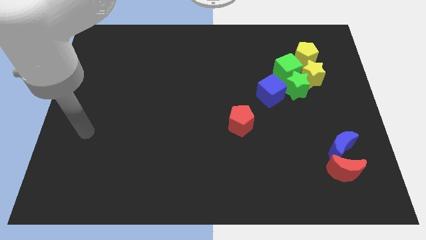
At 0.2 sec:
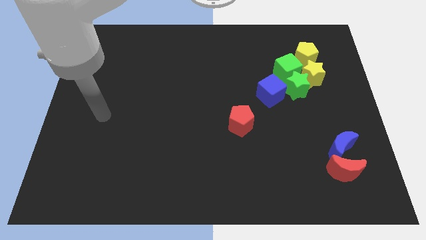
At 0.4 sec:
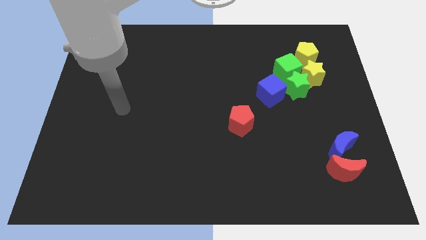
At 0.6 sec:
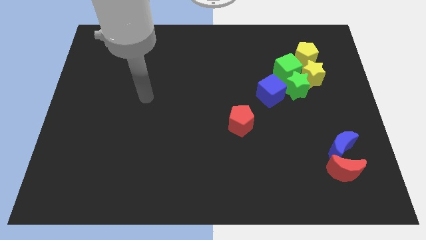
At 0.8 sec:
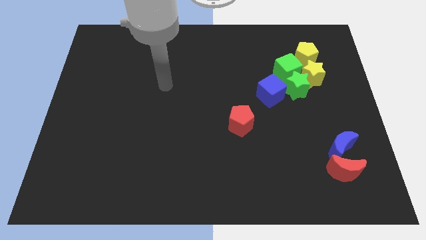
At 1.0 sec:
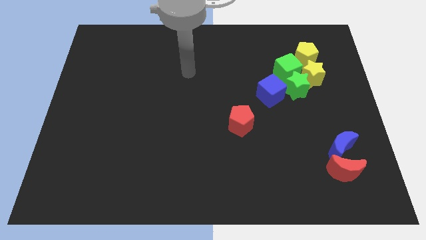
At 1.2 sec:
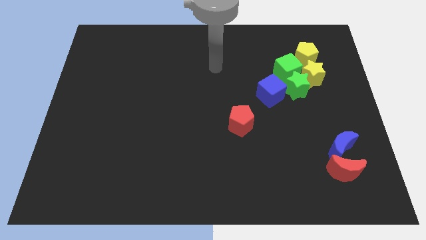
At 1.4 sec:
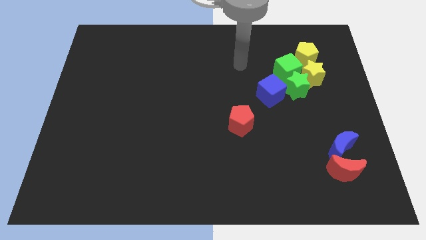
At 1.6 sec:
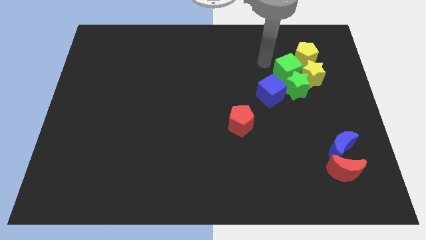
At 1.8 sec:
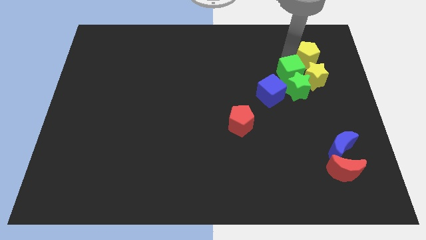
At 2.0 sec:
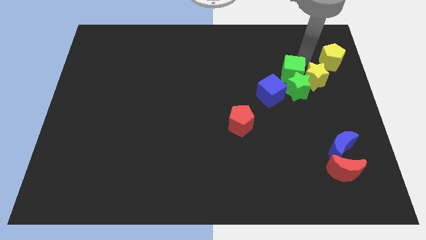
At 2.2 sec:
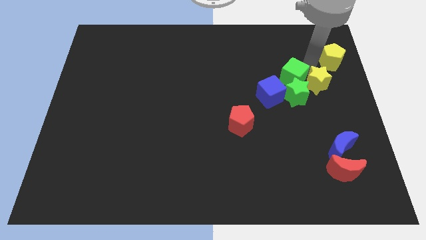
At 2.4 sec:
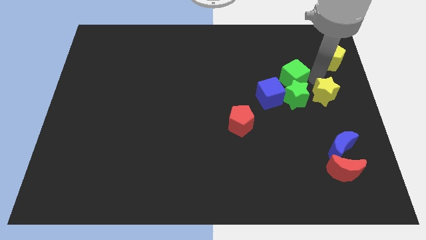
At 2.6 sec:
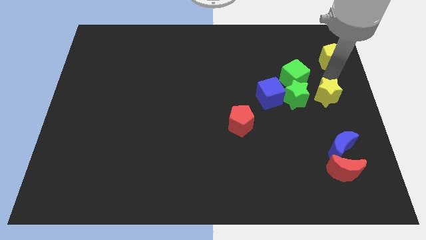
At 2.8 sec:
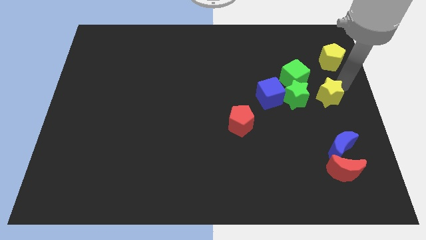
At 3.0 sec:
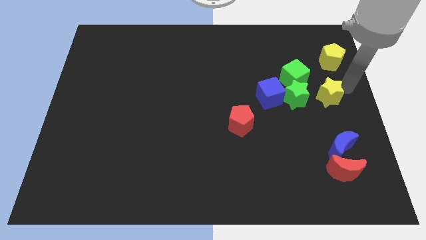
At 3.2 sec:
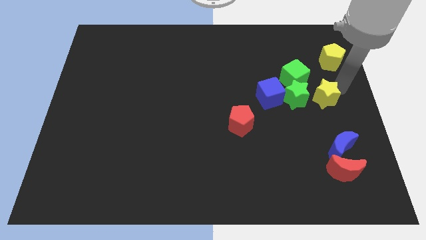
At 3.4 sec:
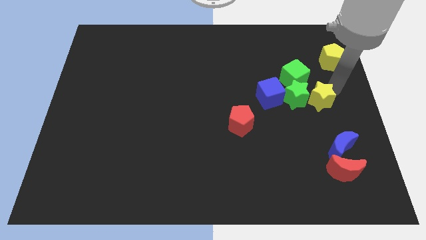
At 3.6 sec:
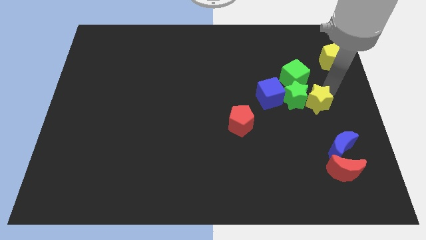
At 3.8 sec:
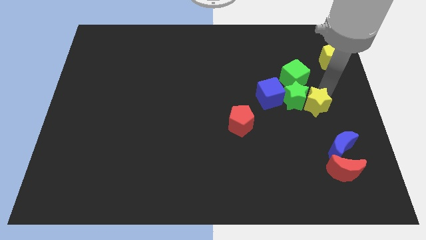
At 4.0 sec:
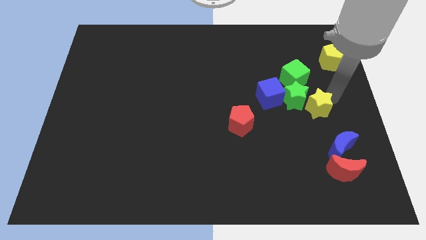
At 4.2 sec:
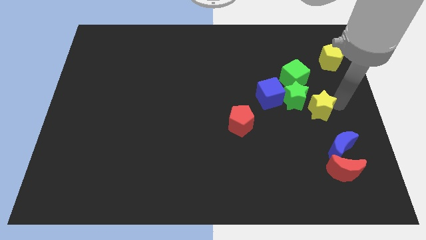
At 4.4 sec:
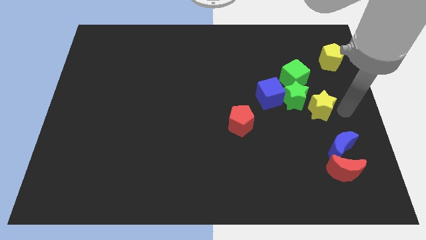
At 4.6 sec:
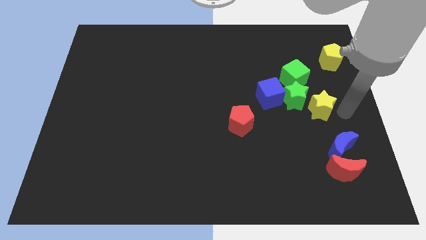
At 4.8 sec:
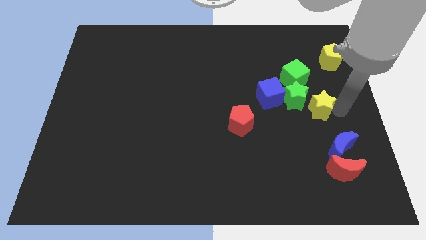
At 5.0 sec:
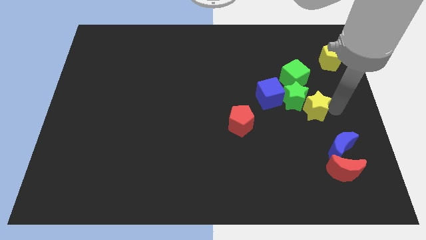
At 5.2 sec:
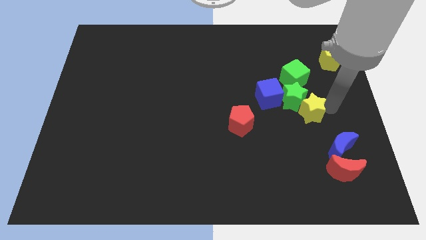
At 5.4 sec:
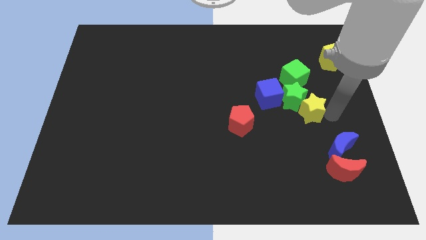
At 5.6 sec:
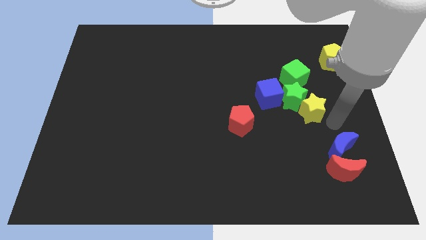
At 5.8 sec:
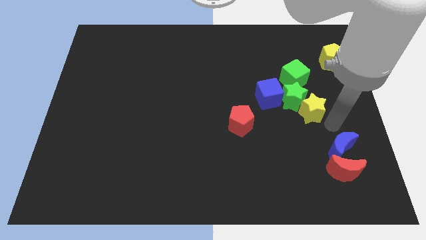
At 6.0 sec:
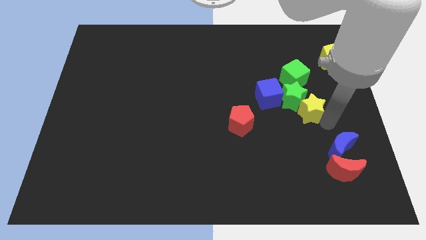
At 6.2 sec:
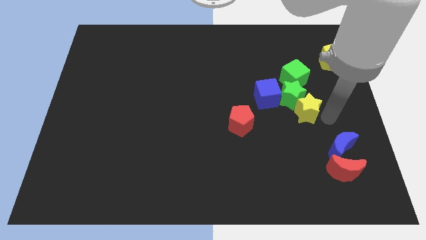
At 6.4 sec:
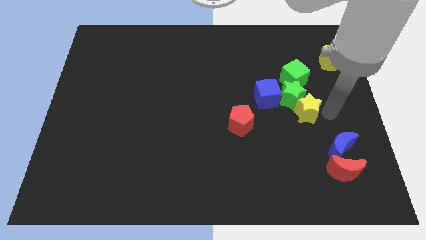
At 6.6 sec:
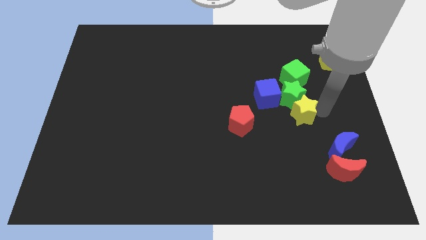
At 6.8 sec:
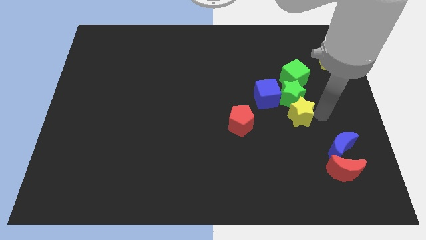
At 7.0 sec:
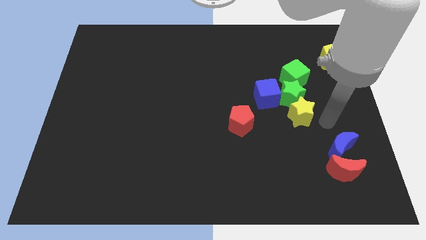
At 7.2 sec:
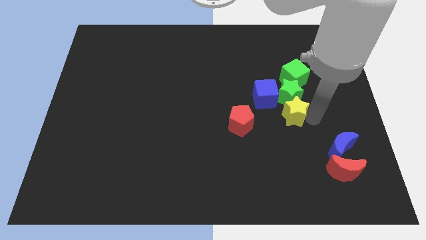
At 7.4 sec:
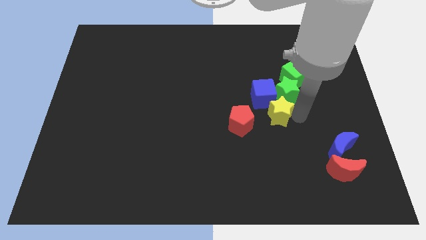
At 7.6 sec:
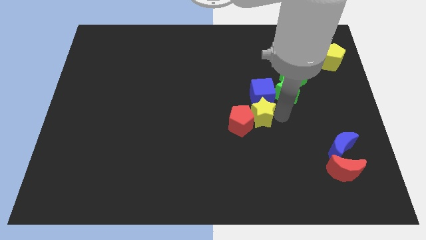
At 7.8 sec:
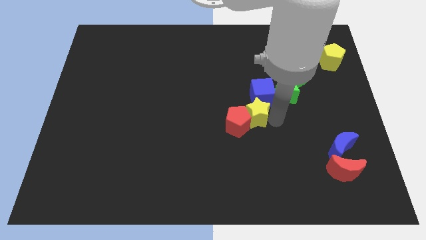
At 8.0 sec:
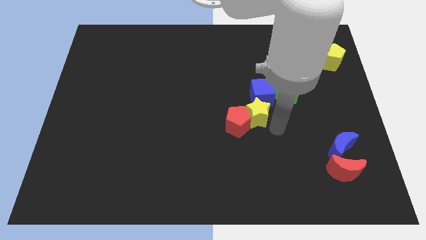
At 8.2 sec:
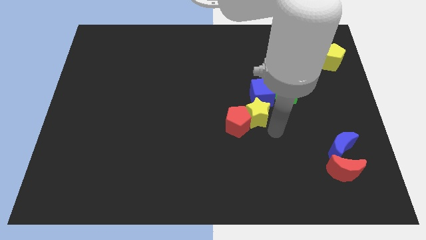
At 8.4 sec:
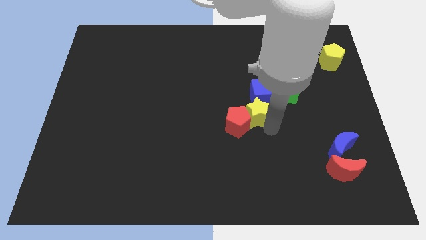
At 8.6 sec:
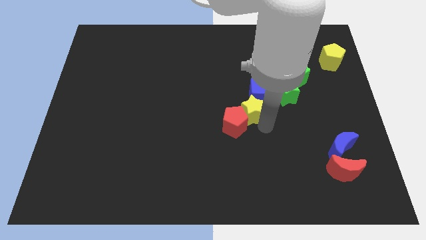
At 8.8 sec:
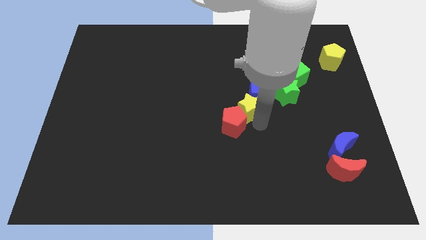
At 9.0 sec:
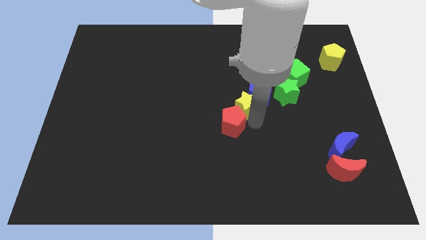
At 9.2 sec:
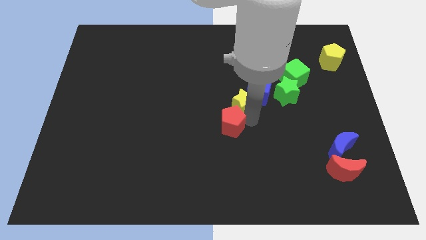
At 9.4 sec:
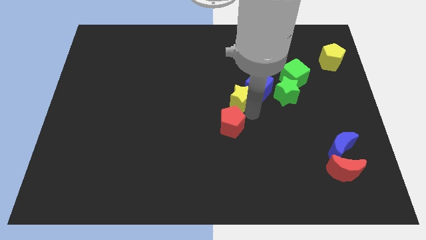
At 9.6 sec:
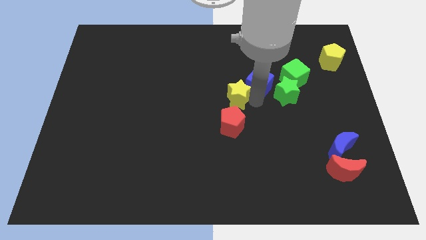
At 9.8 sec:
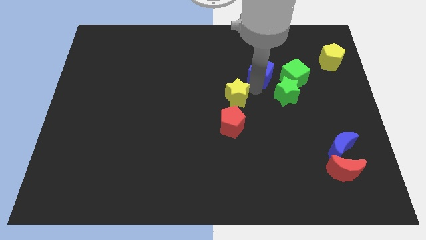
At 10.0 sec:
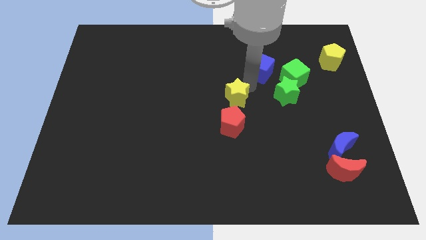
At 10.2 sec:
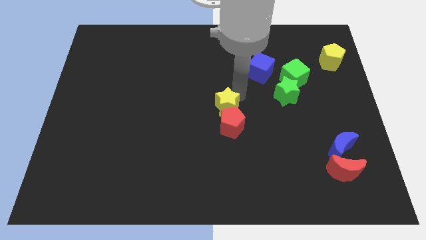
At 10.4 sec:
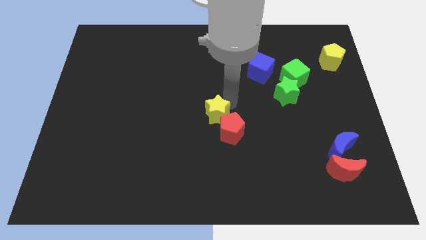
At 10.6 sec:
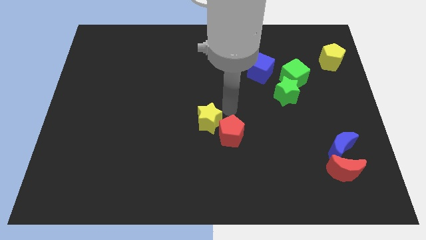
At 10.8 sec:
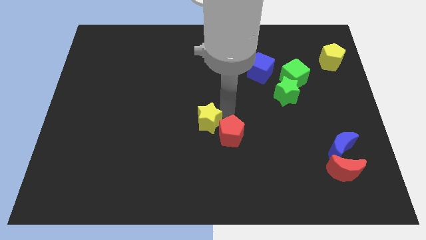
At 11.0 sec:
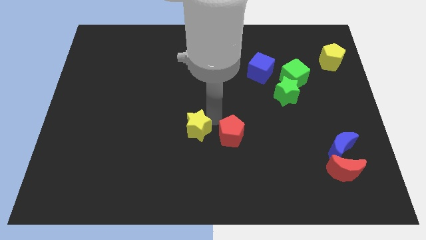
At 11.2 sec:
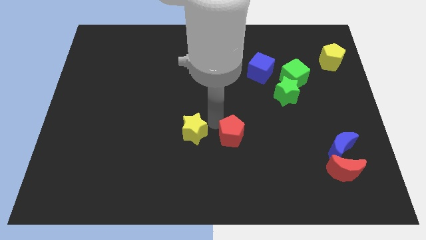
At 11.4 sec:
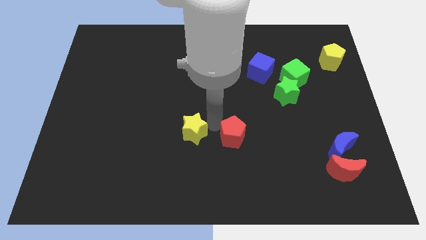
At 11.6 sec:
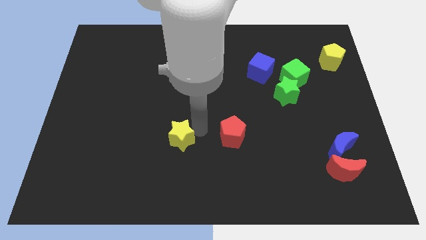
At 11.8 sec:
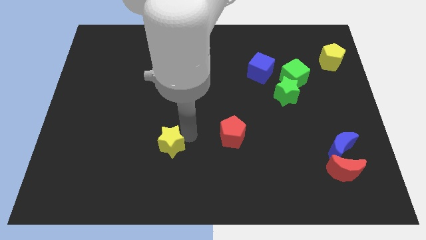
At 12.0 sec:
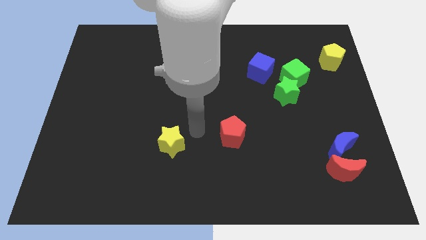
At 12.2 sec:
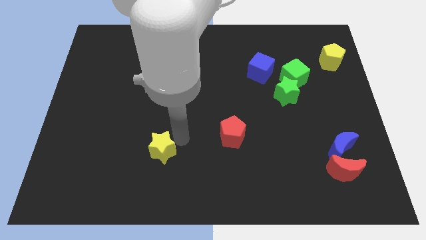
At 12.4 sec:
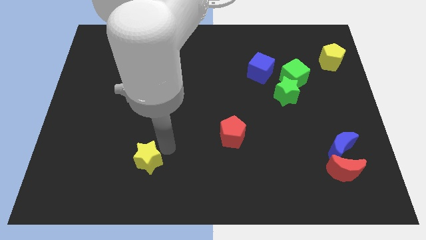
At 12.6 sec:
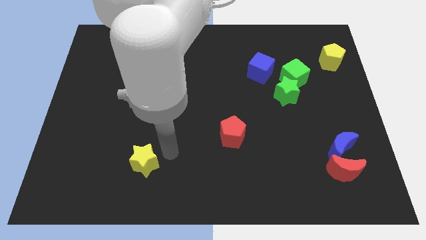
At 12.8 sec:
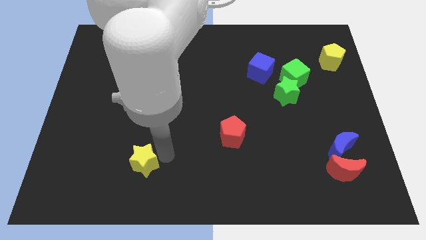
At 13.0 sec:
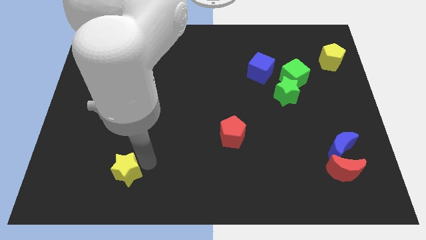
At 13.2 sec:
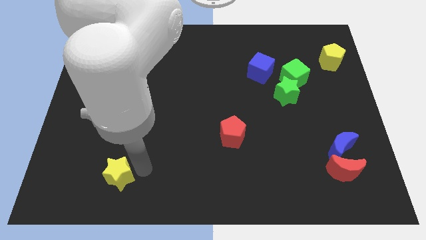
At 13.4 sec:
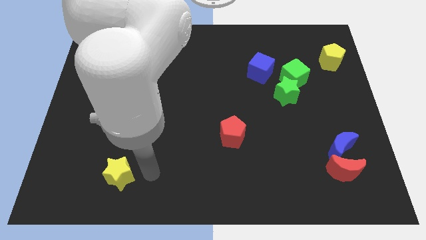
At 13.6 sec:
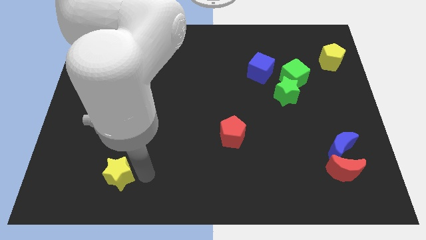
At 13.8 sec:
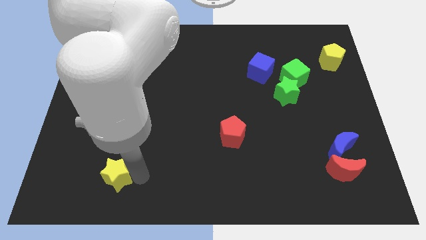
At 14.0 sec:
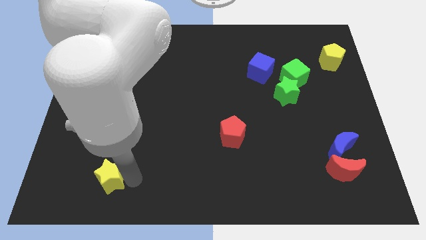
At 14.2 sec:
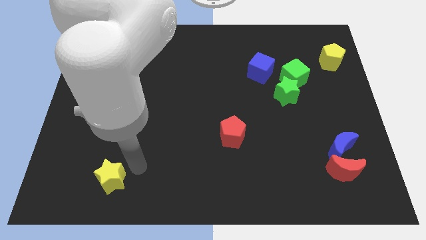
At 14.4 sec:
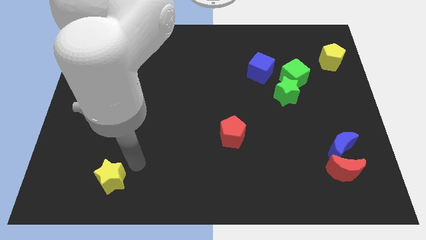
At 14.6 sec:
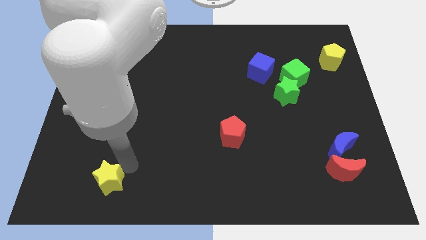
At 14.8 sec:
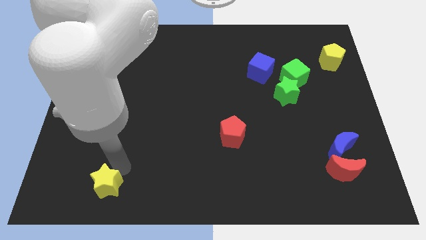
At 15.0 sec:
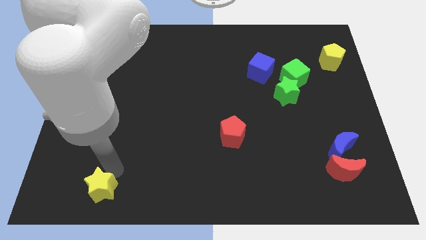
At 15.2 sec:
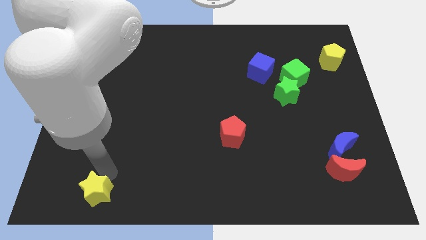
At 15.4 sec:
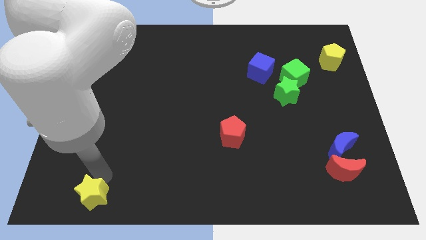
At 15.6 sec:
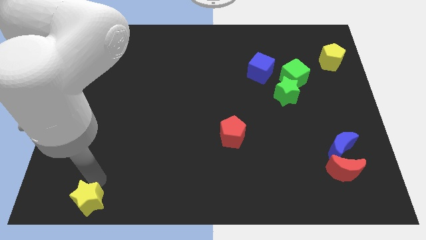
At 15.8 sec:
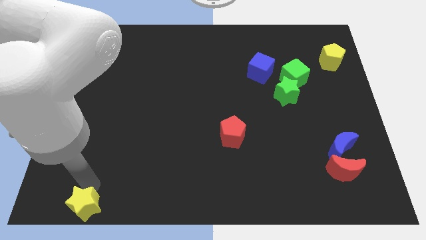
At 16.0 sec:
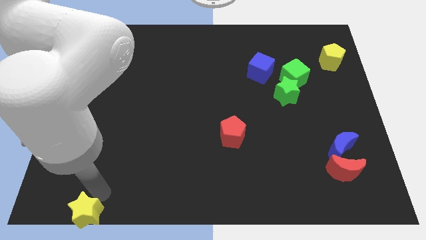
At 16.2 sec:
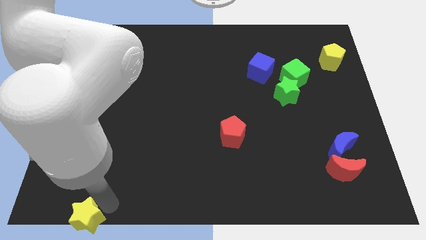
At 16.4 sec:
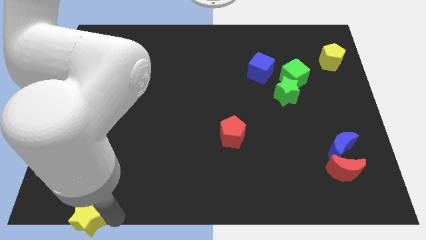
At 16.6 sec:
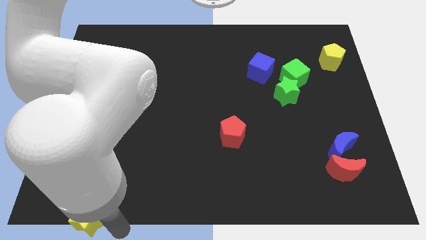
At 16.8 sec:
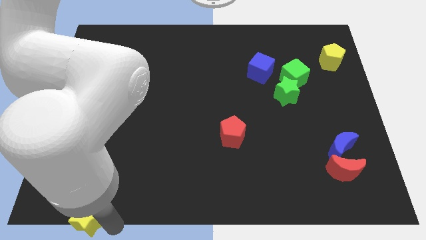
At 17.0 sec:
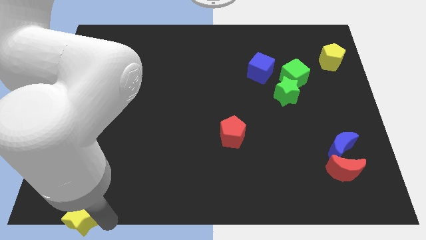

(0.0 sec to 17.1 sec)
push the yellow star to the lower left corner
